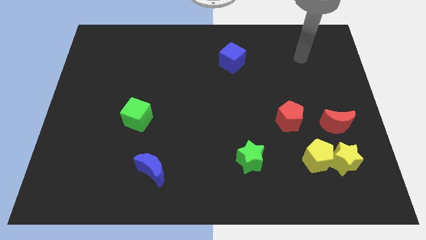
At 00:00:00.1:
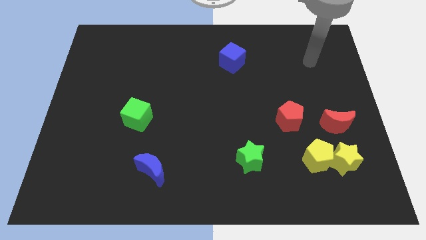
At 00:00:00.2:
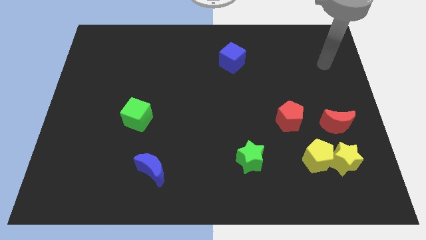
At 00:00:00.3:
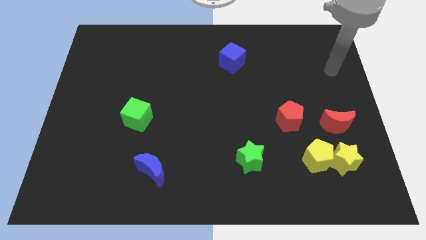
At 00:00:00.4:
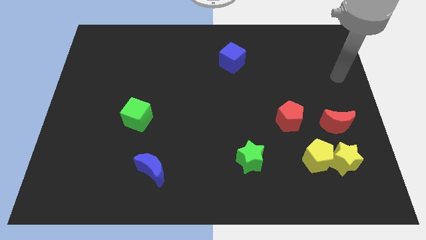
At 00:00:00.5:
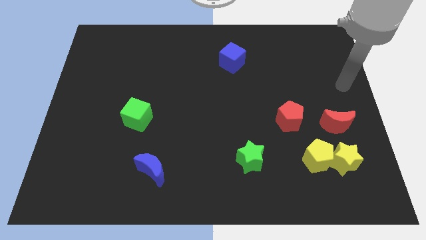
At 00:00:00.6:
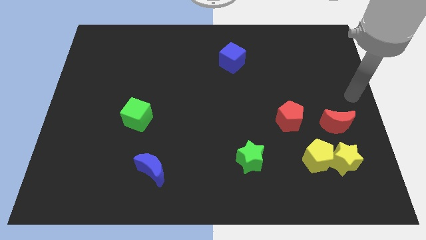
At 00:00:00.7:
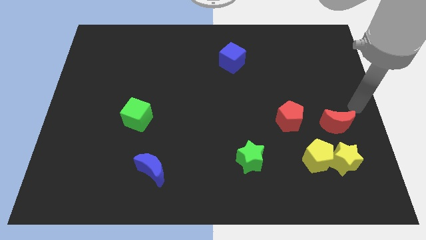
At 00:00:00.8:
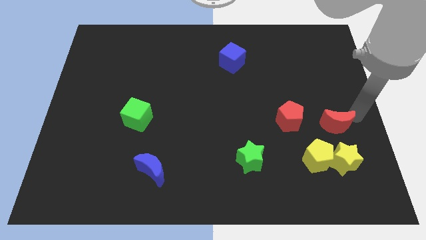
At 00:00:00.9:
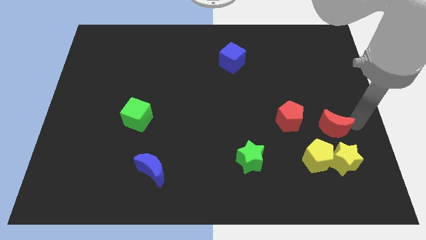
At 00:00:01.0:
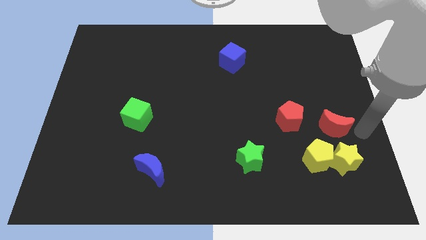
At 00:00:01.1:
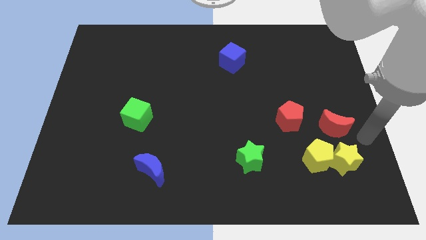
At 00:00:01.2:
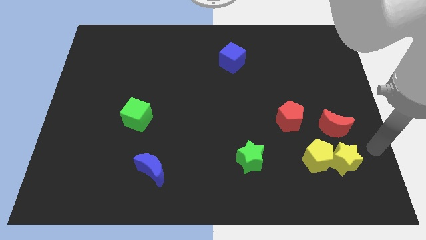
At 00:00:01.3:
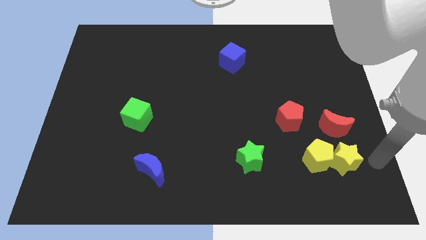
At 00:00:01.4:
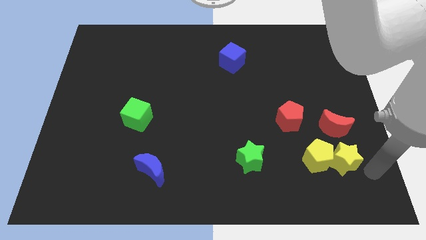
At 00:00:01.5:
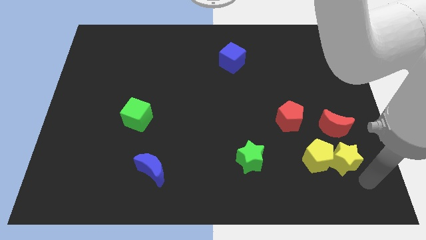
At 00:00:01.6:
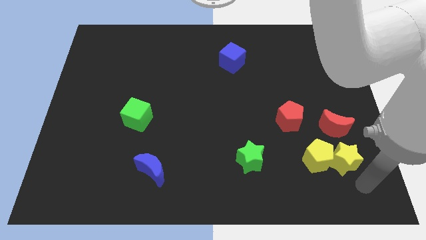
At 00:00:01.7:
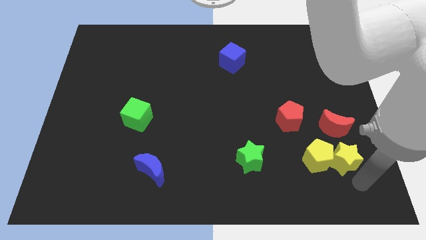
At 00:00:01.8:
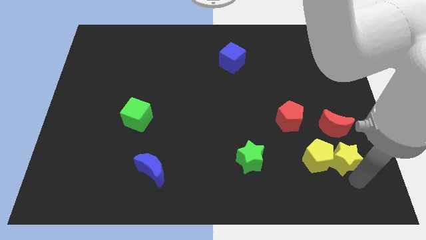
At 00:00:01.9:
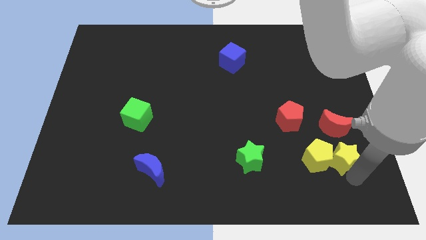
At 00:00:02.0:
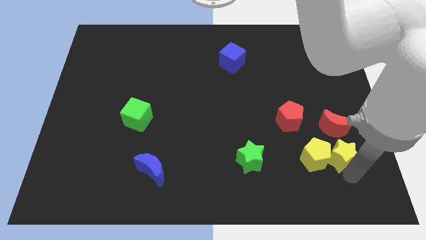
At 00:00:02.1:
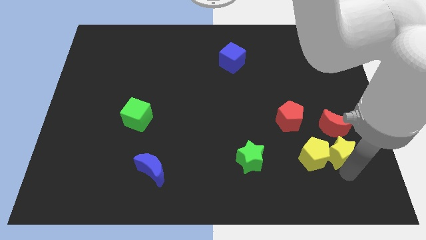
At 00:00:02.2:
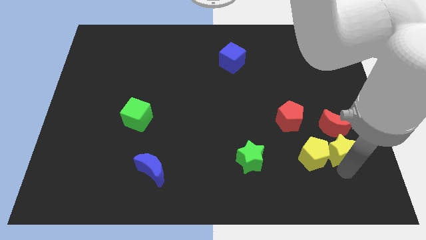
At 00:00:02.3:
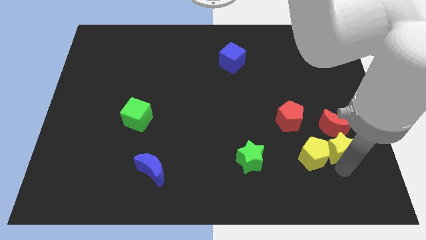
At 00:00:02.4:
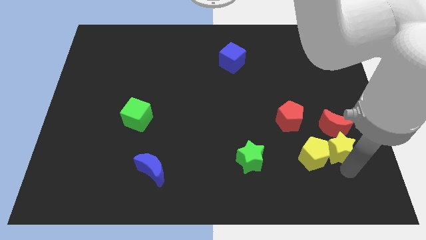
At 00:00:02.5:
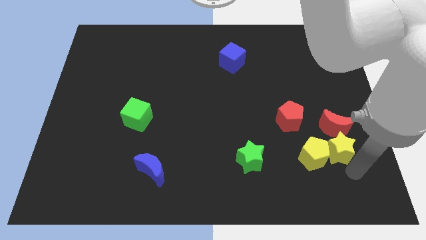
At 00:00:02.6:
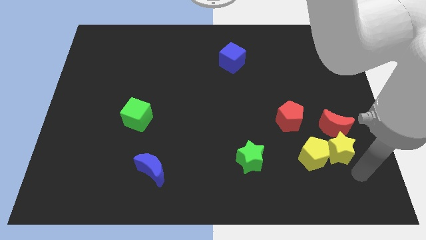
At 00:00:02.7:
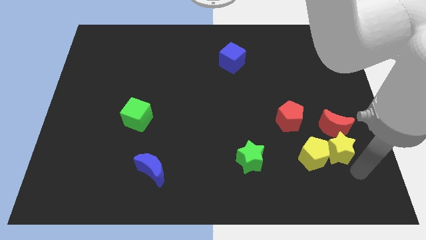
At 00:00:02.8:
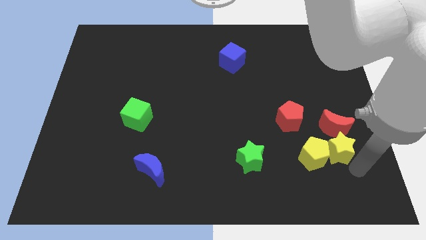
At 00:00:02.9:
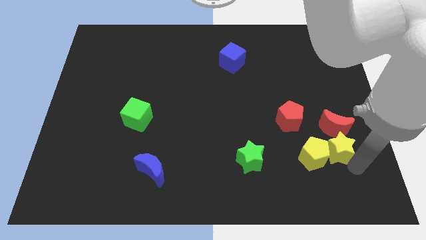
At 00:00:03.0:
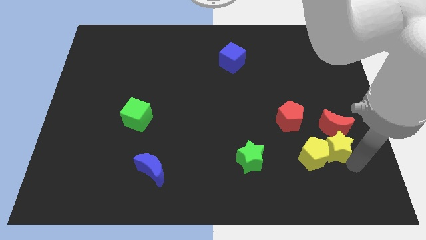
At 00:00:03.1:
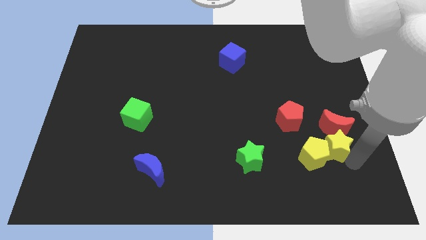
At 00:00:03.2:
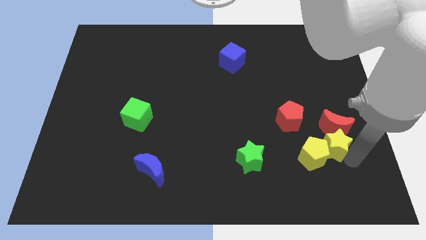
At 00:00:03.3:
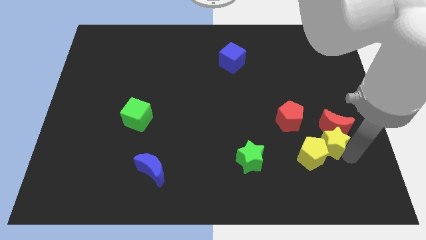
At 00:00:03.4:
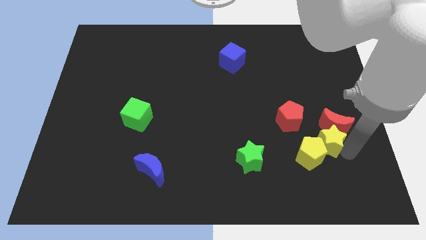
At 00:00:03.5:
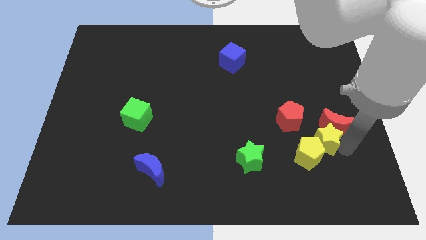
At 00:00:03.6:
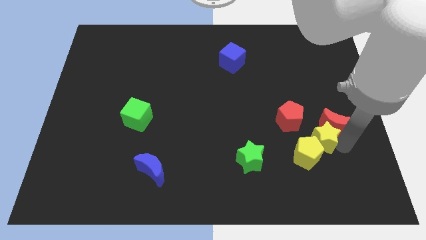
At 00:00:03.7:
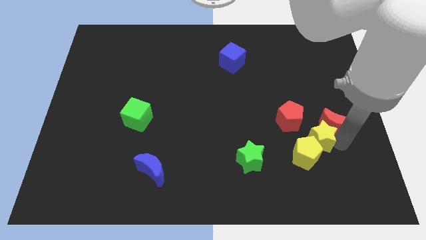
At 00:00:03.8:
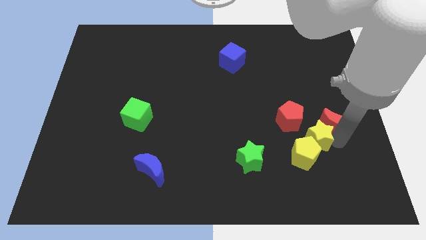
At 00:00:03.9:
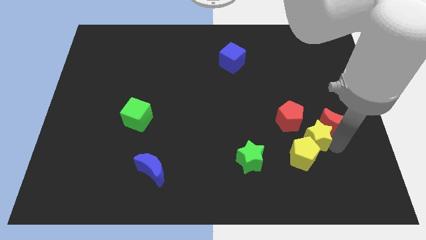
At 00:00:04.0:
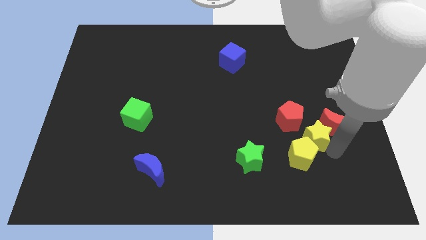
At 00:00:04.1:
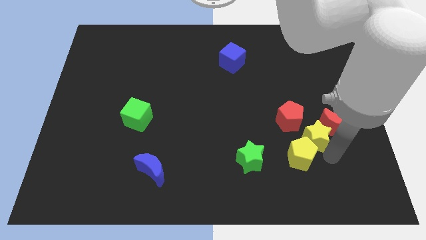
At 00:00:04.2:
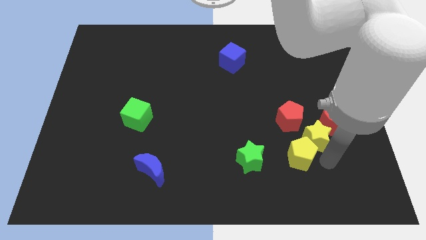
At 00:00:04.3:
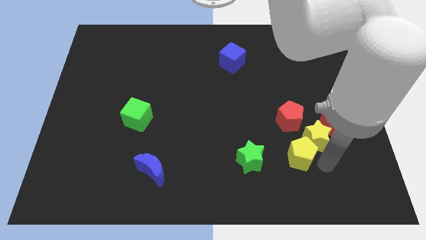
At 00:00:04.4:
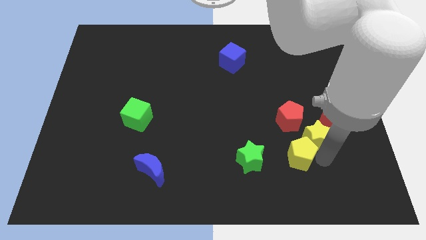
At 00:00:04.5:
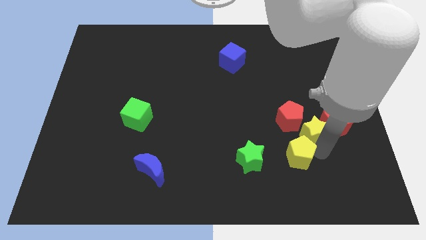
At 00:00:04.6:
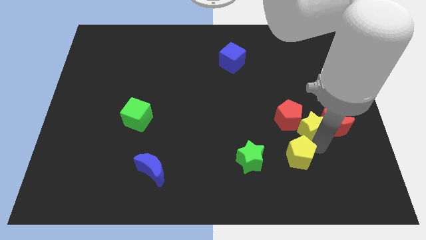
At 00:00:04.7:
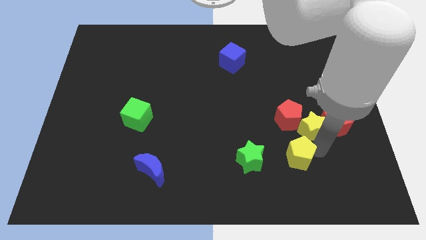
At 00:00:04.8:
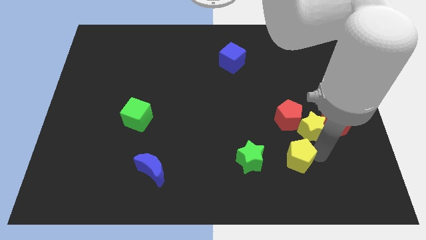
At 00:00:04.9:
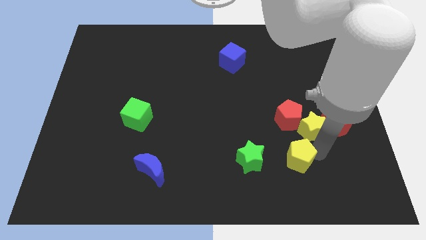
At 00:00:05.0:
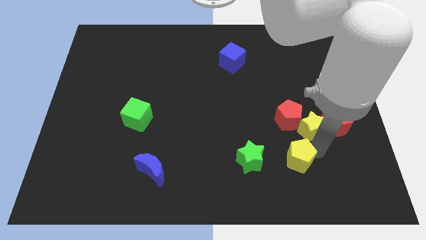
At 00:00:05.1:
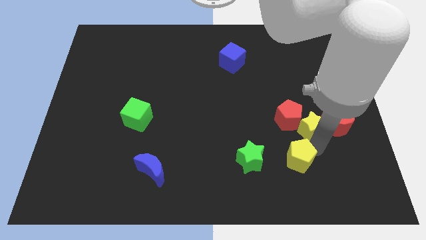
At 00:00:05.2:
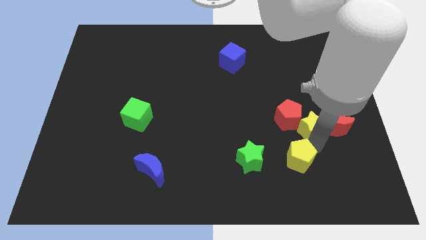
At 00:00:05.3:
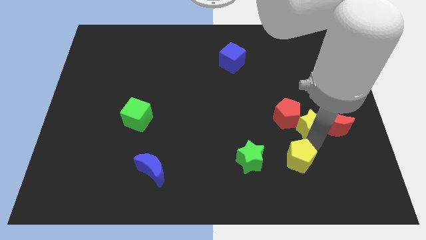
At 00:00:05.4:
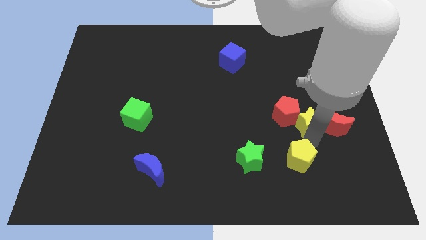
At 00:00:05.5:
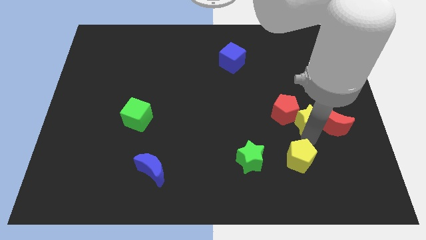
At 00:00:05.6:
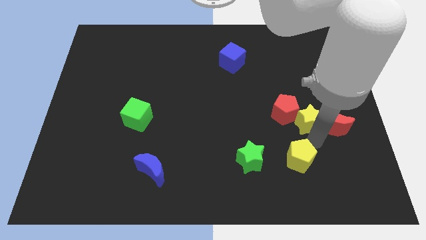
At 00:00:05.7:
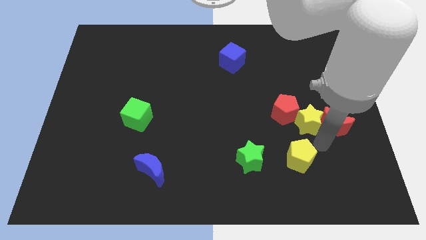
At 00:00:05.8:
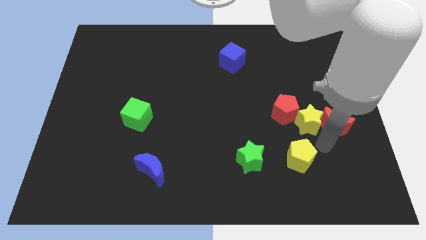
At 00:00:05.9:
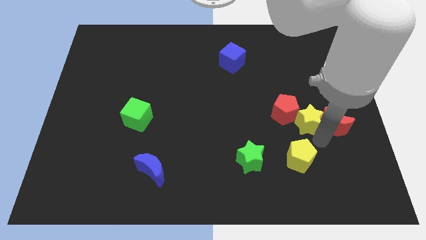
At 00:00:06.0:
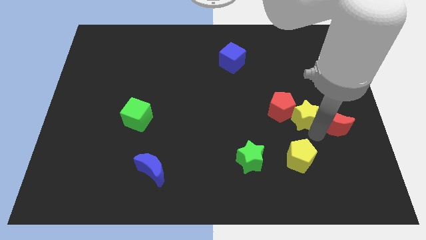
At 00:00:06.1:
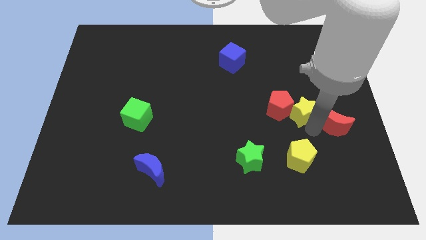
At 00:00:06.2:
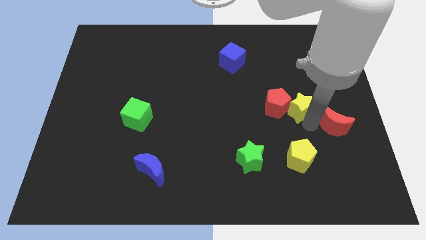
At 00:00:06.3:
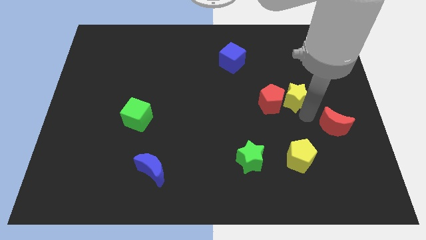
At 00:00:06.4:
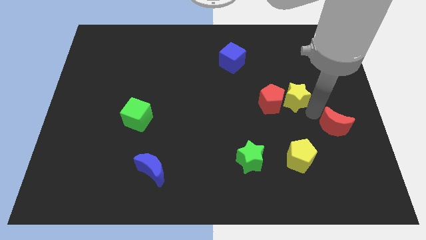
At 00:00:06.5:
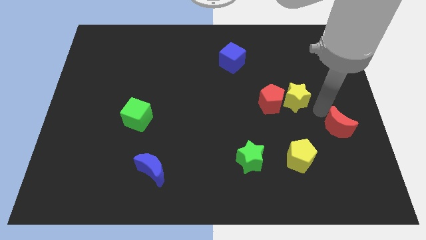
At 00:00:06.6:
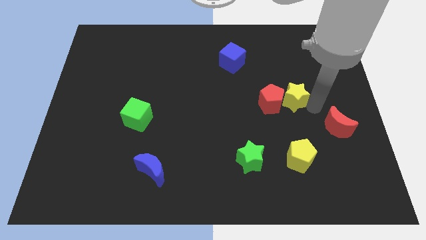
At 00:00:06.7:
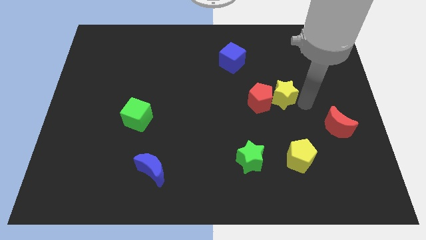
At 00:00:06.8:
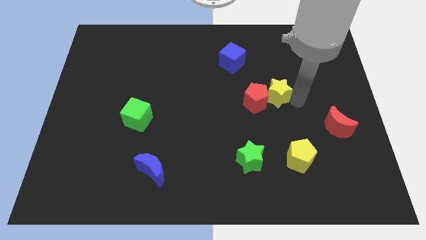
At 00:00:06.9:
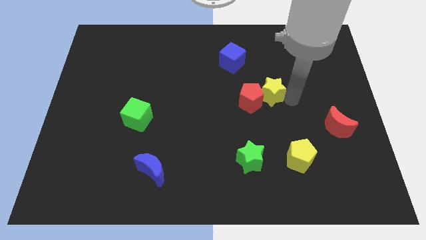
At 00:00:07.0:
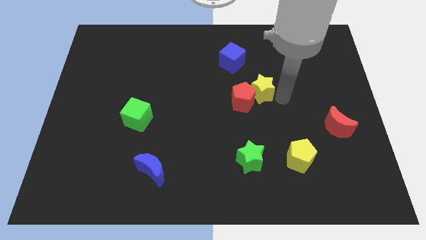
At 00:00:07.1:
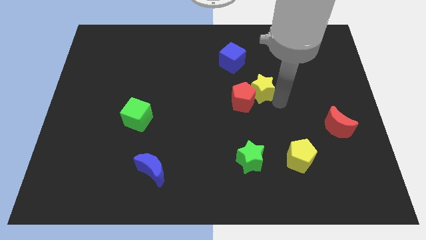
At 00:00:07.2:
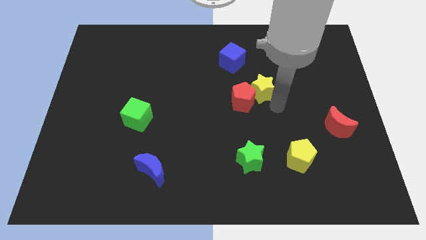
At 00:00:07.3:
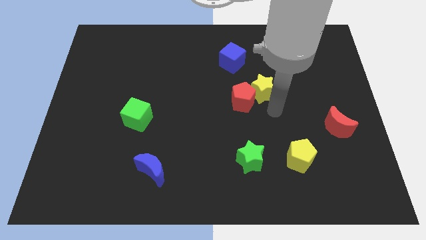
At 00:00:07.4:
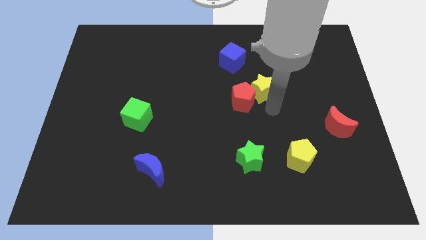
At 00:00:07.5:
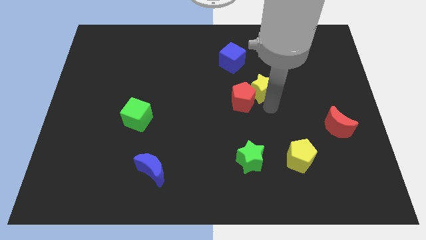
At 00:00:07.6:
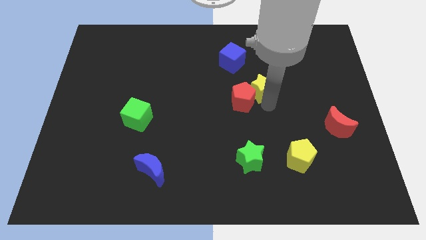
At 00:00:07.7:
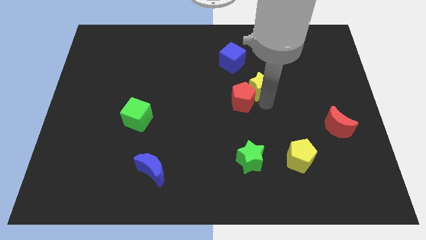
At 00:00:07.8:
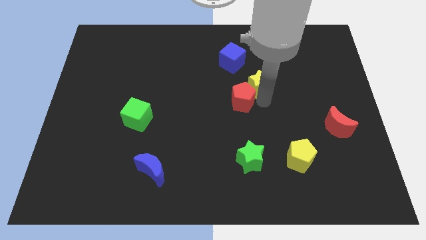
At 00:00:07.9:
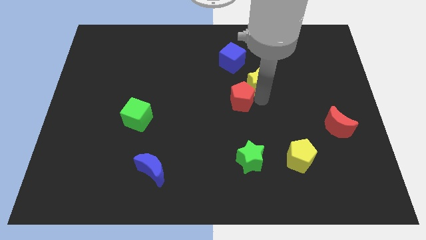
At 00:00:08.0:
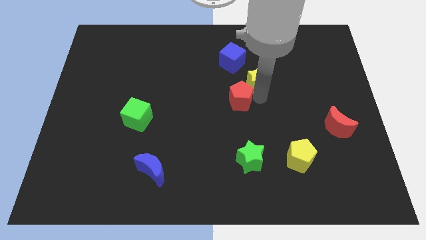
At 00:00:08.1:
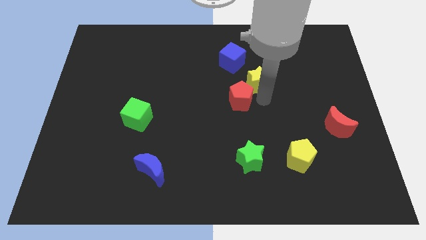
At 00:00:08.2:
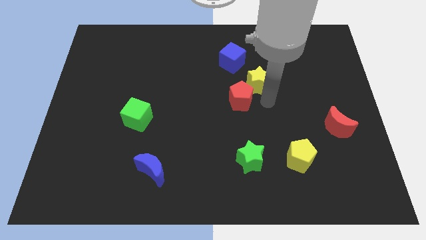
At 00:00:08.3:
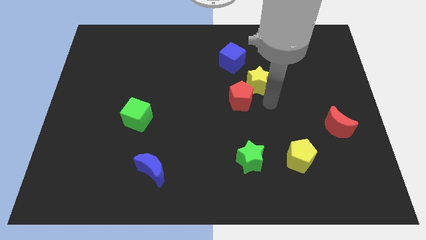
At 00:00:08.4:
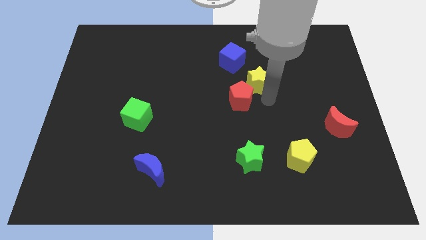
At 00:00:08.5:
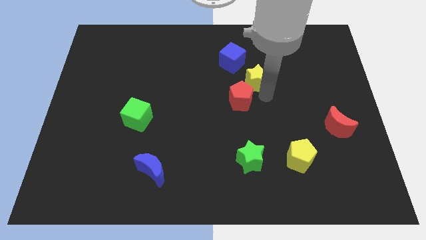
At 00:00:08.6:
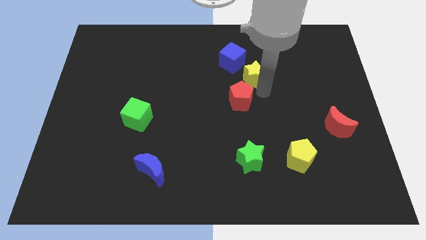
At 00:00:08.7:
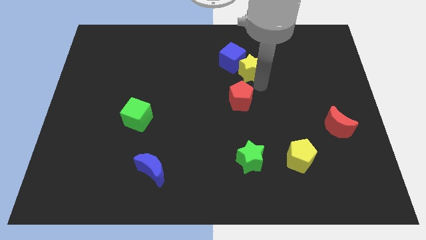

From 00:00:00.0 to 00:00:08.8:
slide the yellow star next to the blue cube
